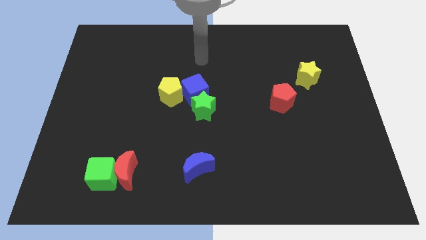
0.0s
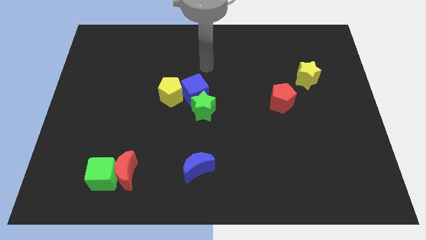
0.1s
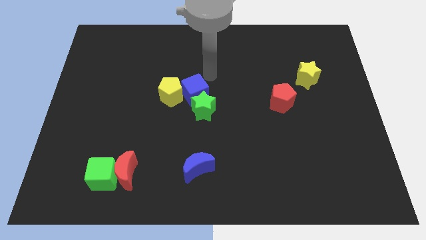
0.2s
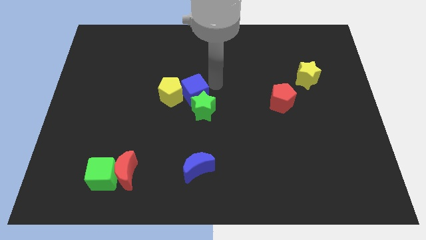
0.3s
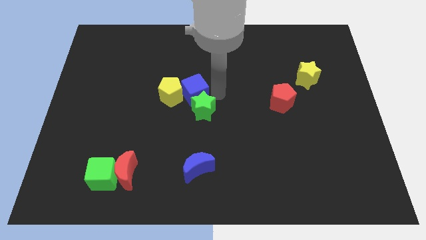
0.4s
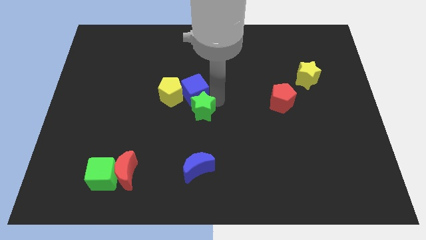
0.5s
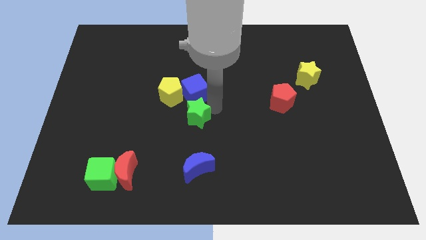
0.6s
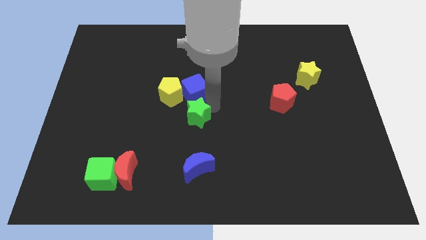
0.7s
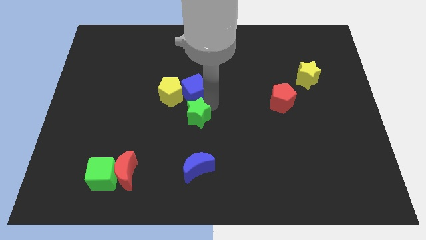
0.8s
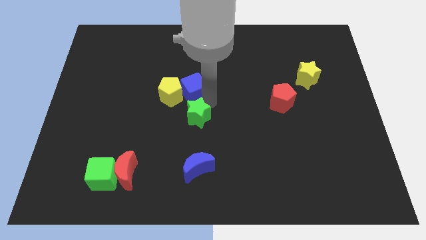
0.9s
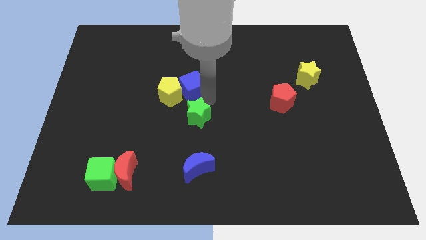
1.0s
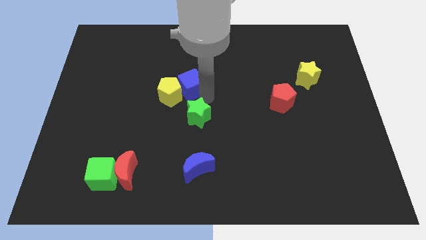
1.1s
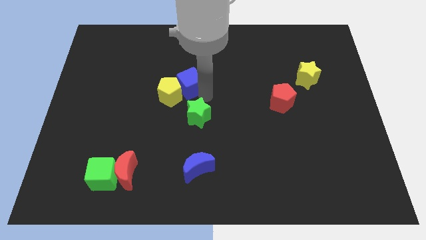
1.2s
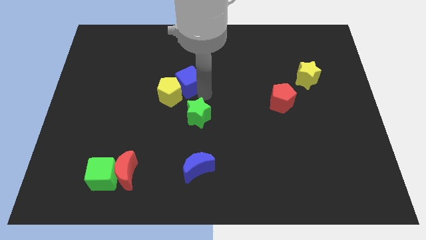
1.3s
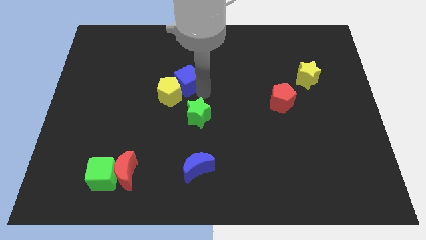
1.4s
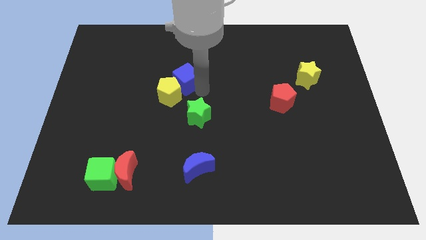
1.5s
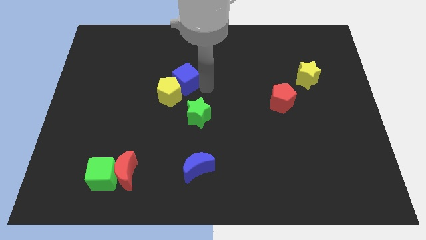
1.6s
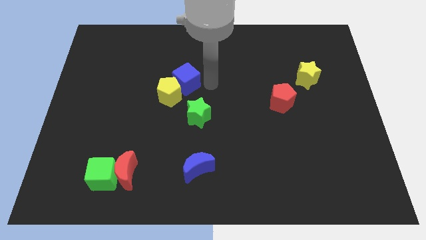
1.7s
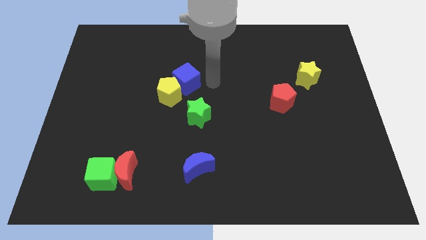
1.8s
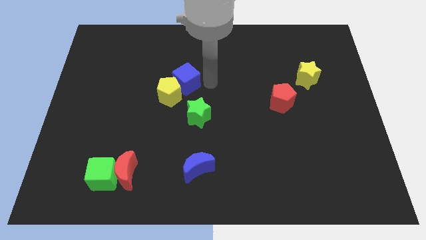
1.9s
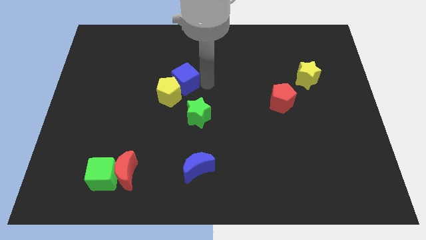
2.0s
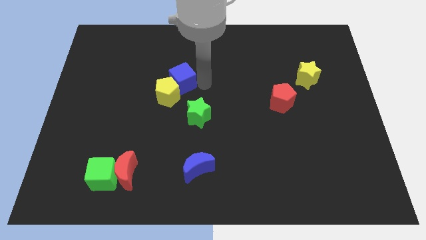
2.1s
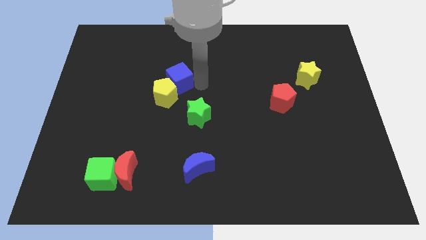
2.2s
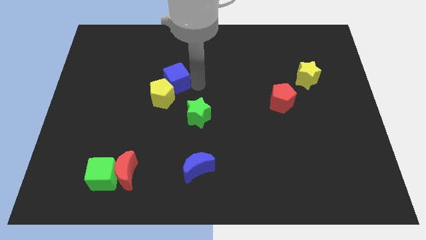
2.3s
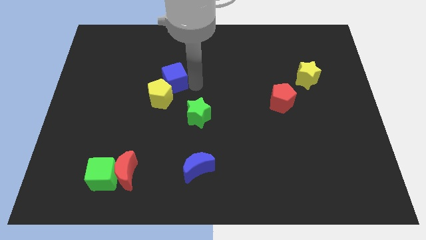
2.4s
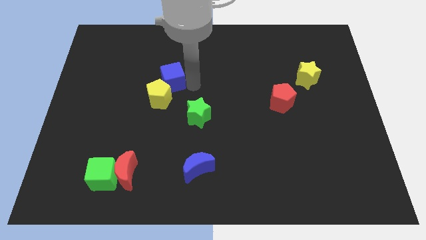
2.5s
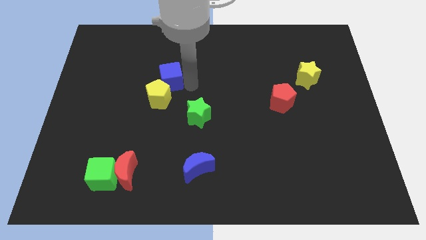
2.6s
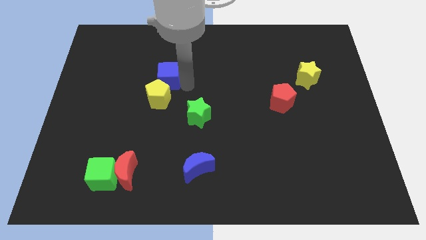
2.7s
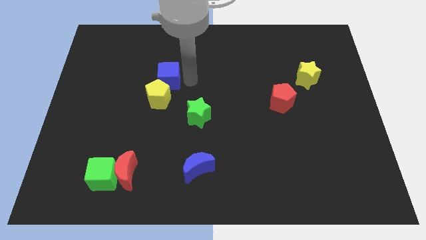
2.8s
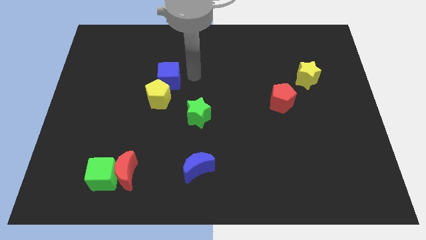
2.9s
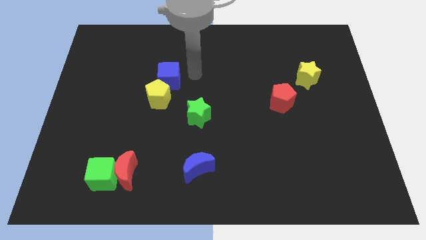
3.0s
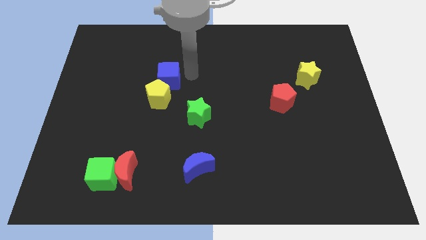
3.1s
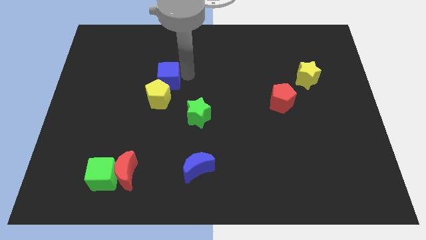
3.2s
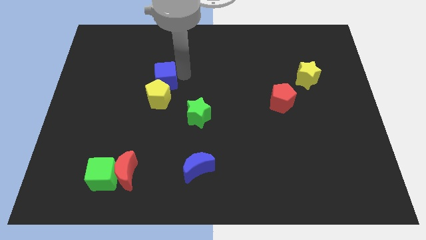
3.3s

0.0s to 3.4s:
slightly slide the blue cube left

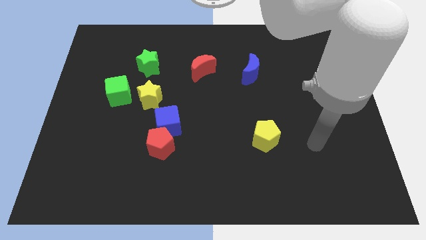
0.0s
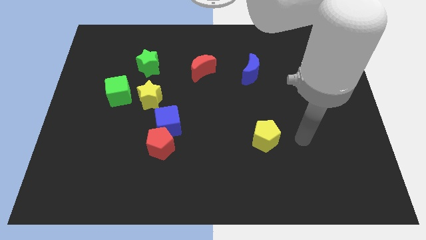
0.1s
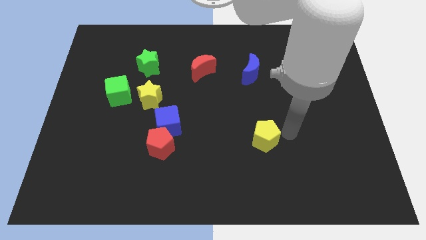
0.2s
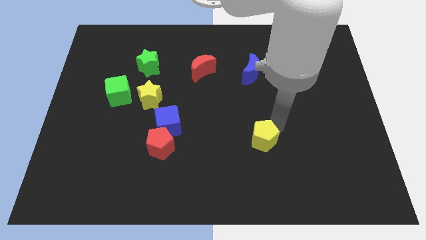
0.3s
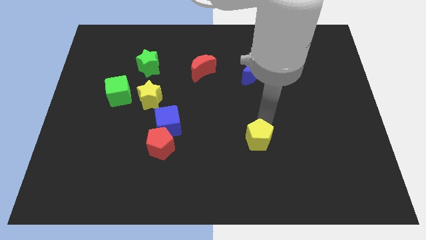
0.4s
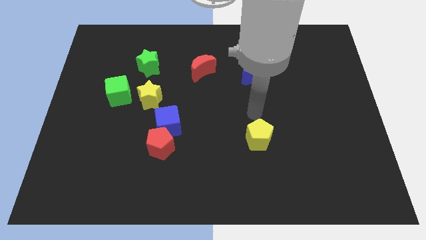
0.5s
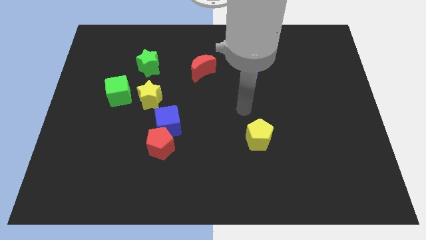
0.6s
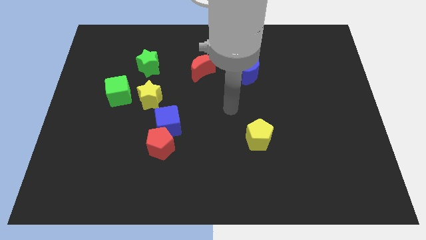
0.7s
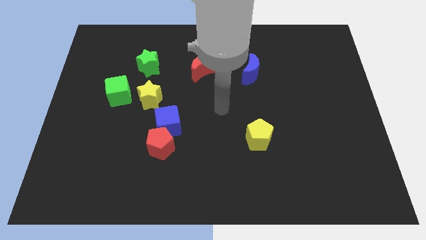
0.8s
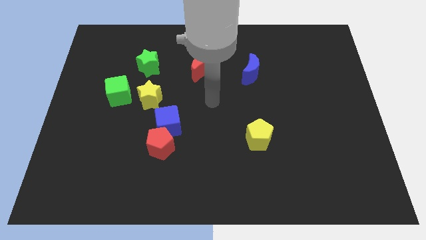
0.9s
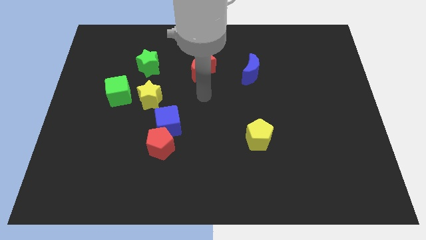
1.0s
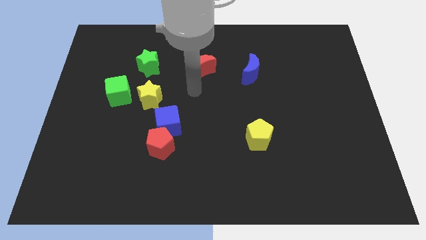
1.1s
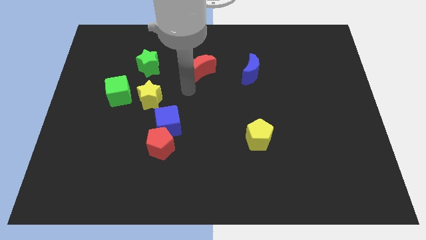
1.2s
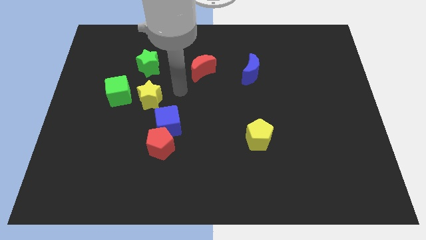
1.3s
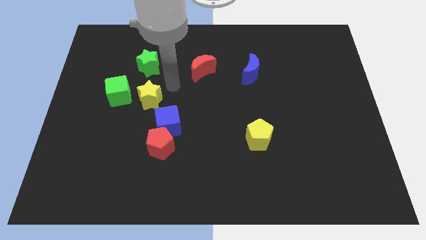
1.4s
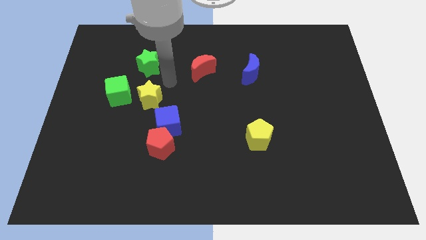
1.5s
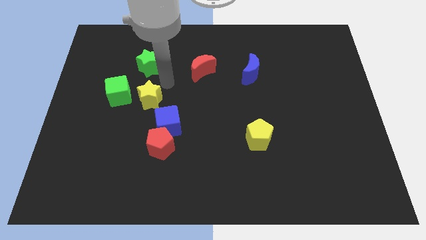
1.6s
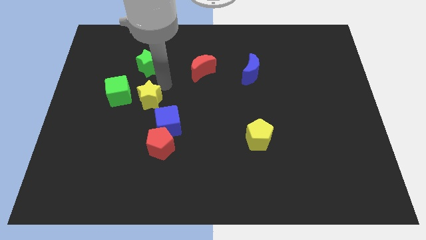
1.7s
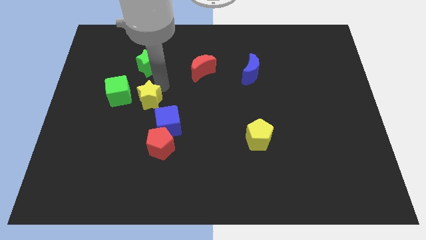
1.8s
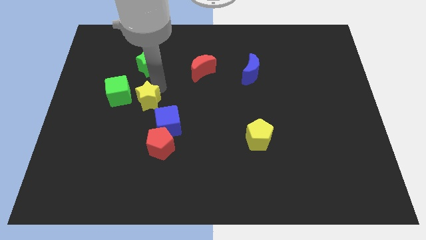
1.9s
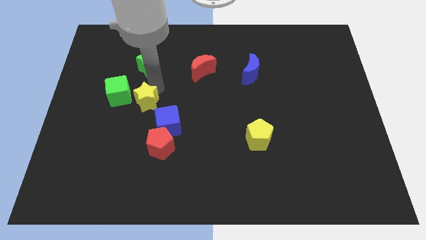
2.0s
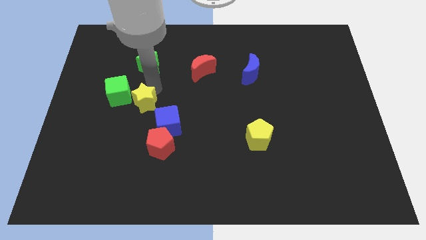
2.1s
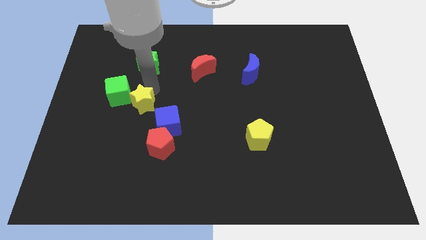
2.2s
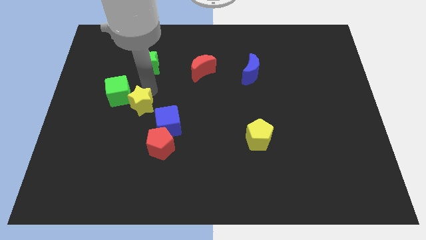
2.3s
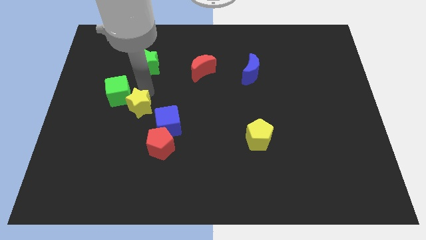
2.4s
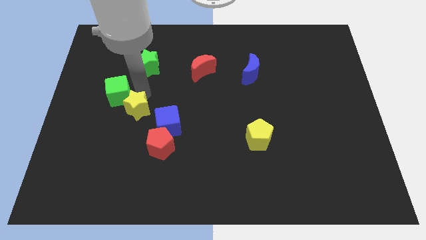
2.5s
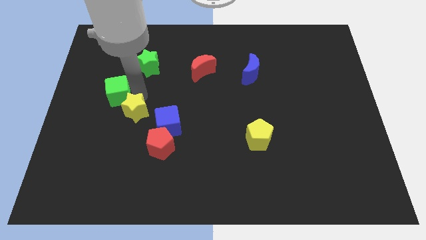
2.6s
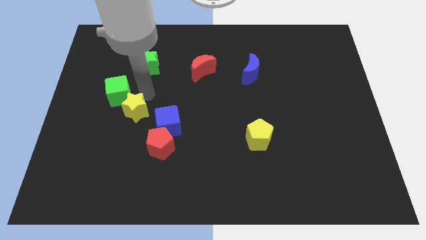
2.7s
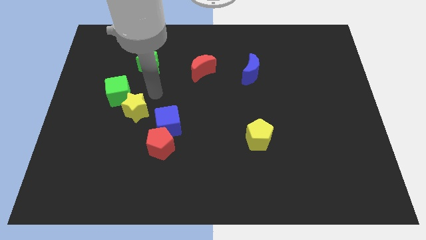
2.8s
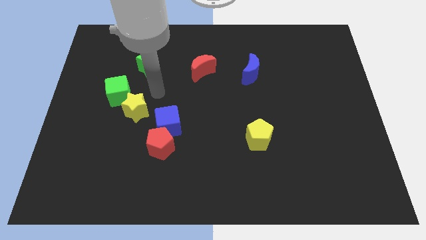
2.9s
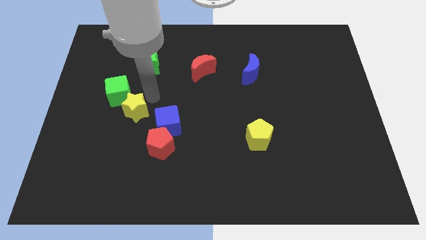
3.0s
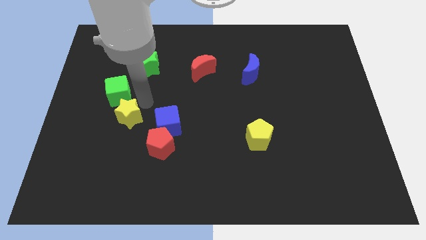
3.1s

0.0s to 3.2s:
slightly move the yellow star down and then left

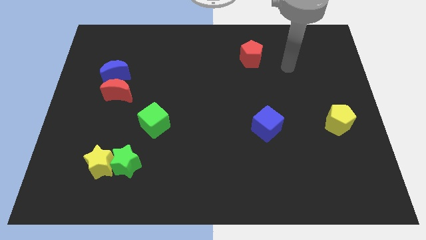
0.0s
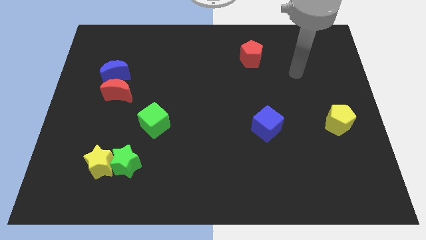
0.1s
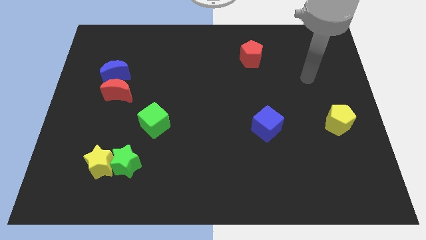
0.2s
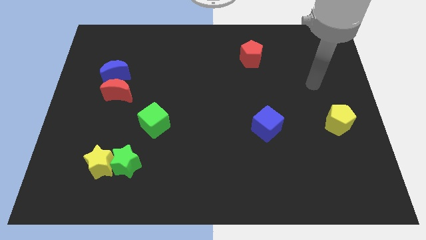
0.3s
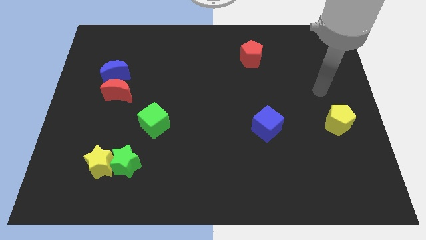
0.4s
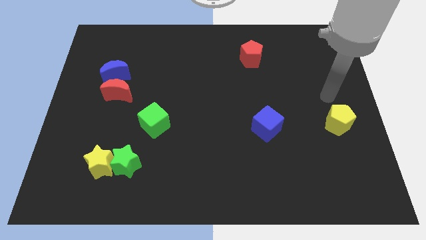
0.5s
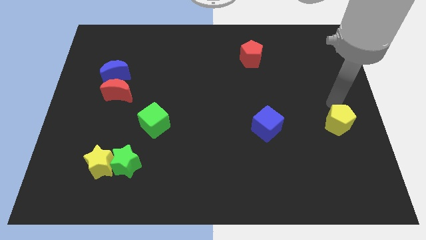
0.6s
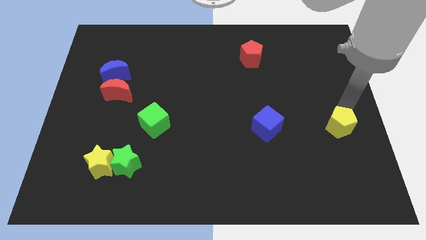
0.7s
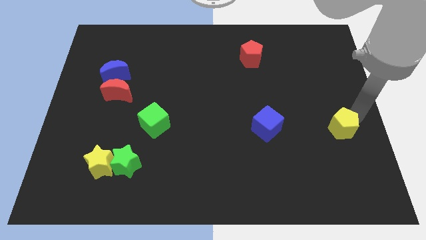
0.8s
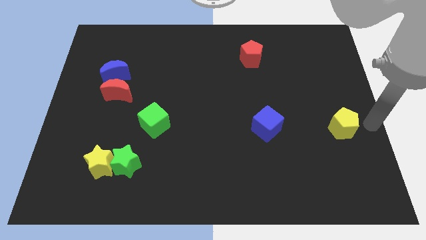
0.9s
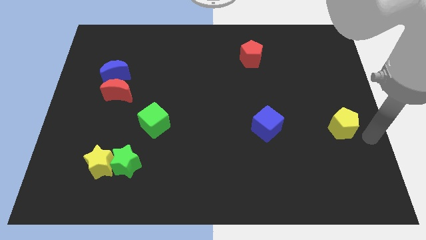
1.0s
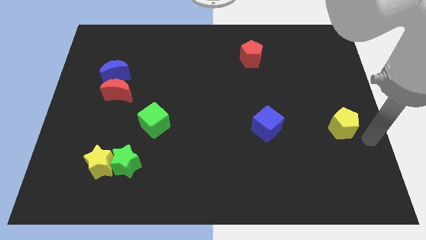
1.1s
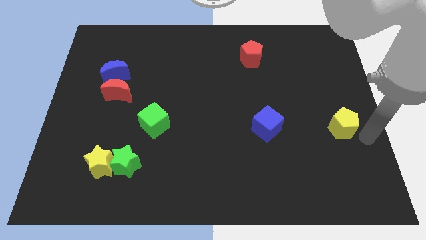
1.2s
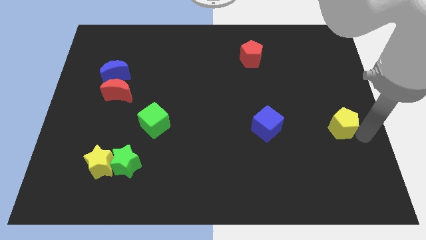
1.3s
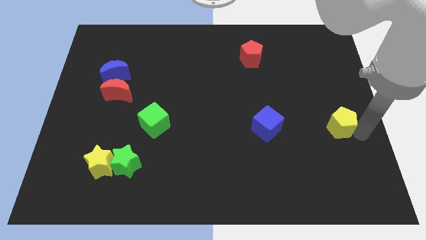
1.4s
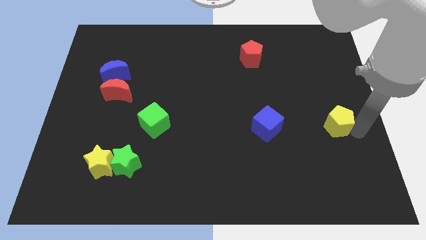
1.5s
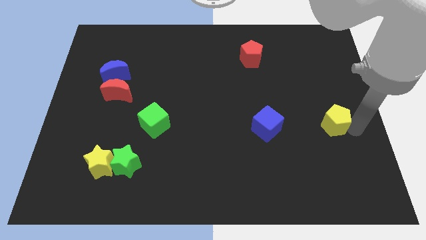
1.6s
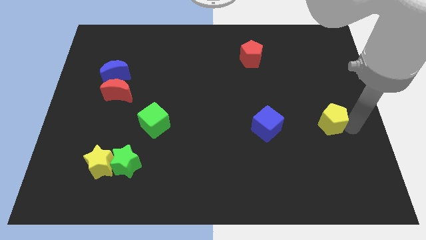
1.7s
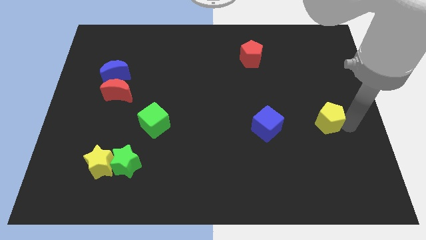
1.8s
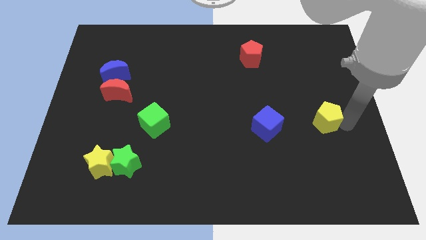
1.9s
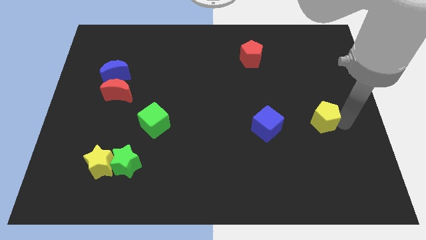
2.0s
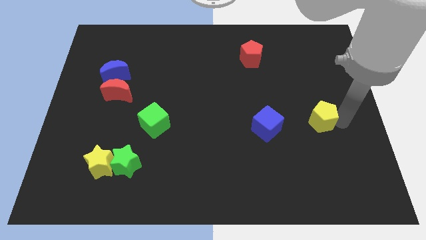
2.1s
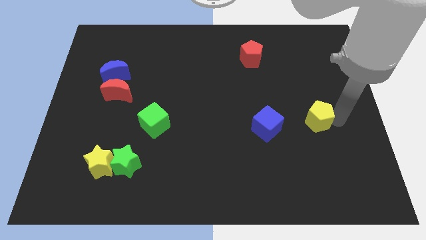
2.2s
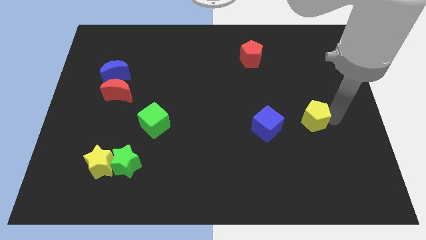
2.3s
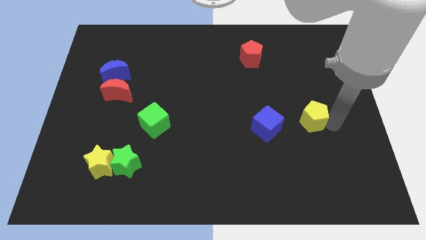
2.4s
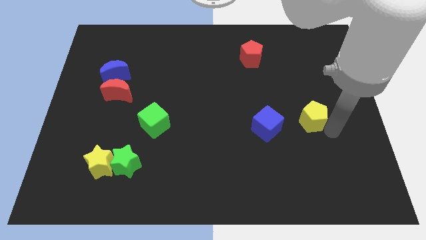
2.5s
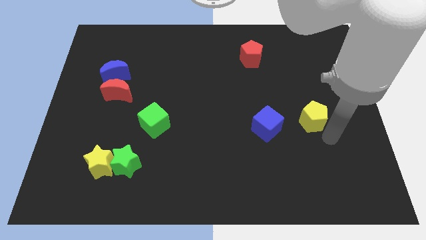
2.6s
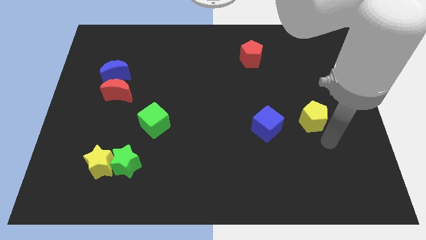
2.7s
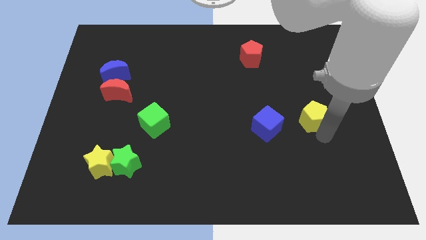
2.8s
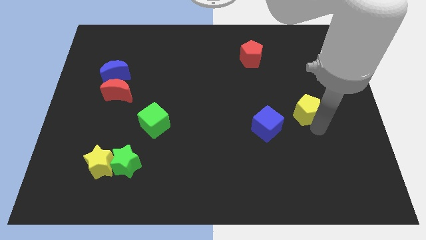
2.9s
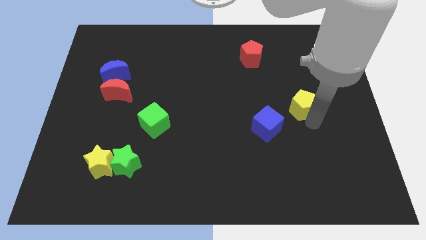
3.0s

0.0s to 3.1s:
slightly slide the yellow pentagon diagonally upwards and left
